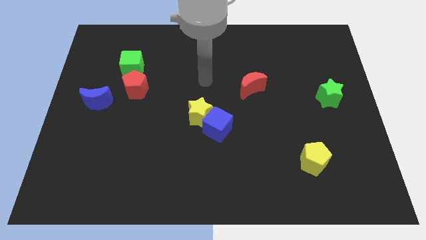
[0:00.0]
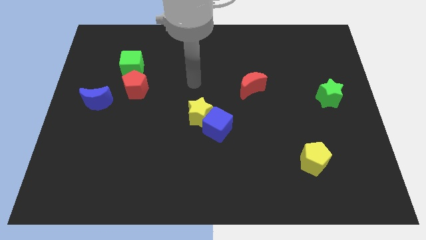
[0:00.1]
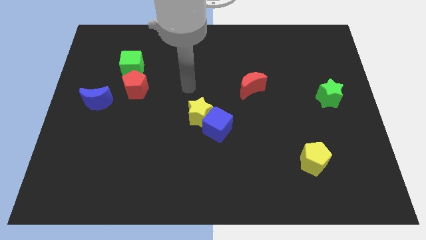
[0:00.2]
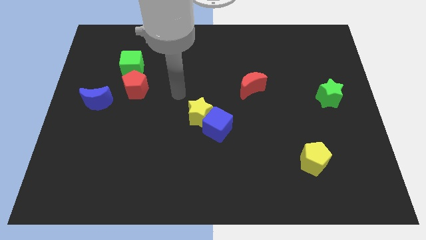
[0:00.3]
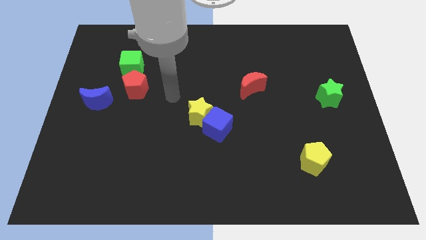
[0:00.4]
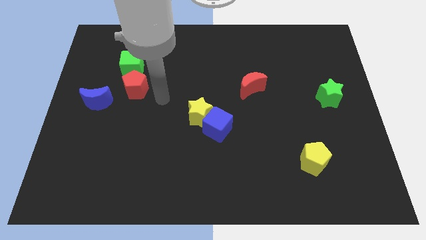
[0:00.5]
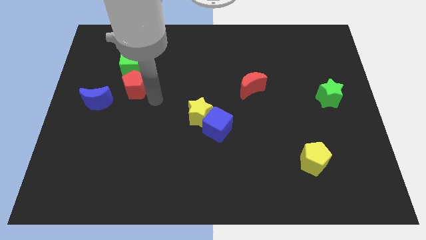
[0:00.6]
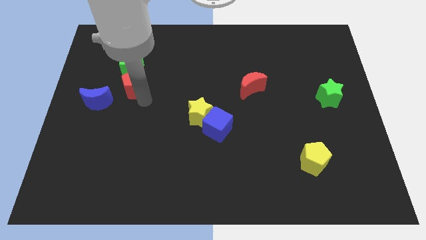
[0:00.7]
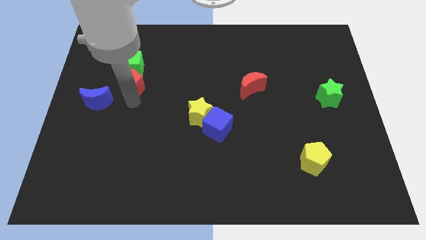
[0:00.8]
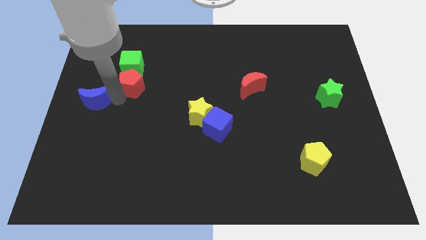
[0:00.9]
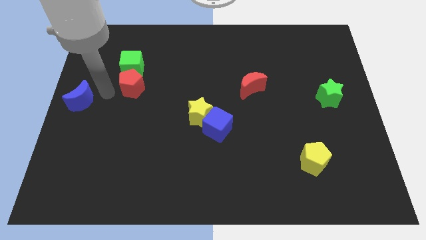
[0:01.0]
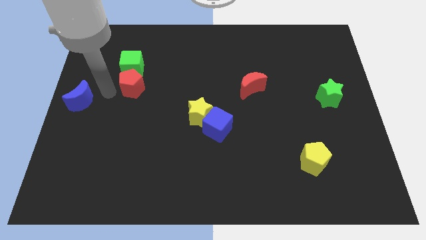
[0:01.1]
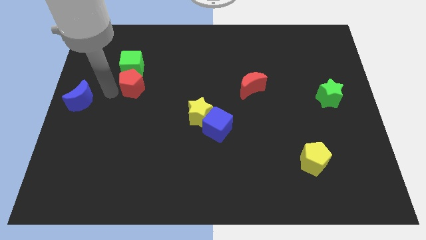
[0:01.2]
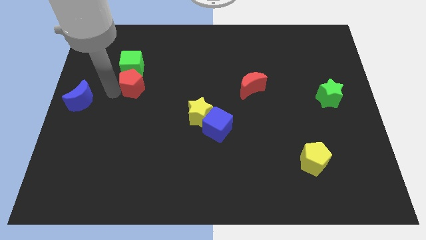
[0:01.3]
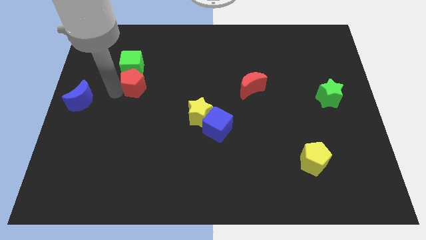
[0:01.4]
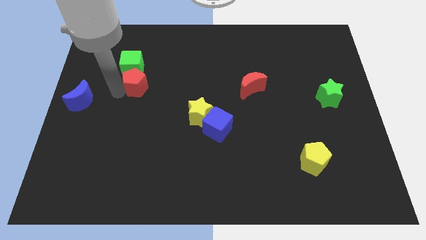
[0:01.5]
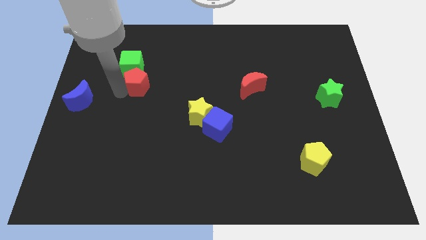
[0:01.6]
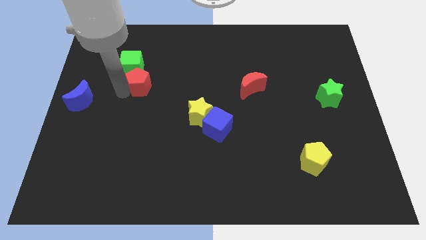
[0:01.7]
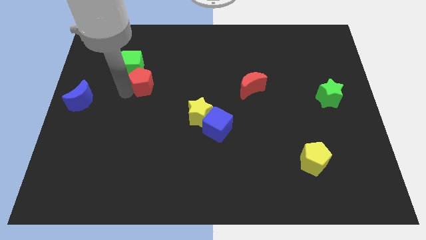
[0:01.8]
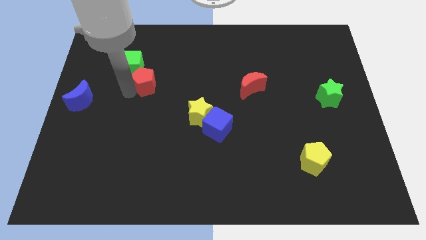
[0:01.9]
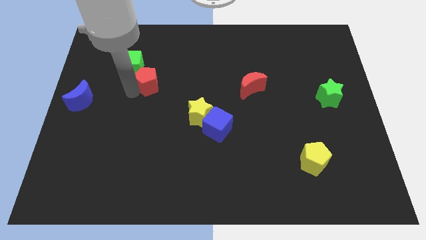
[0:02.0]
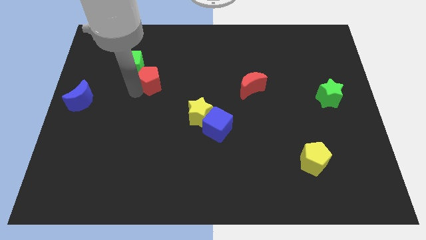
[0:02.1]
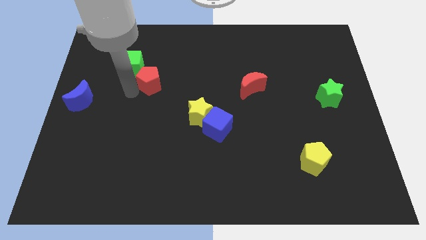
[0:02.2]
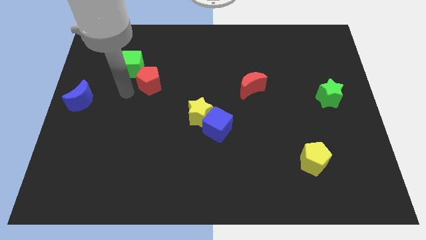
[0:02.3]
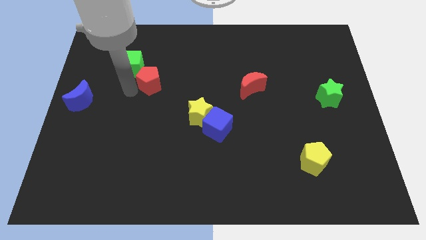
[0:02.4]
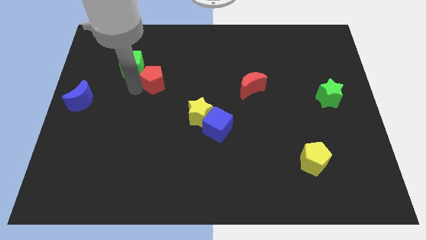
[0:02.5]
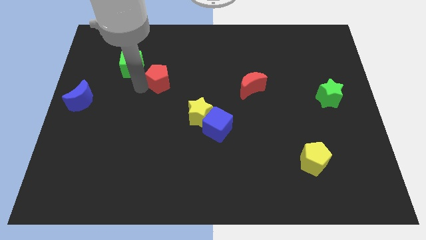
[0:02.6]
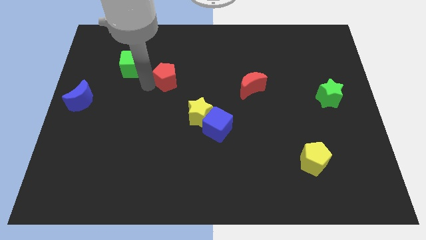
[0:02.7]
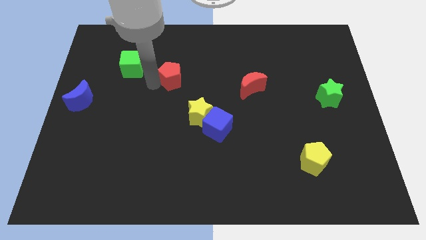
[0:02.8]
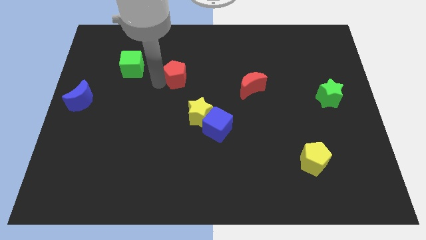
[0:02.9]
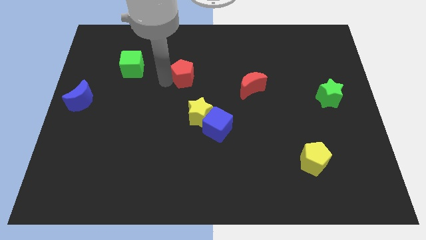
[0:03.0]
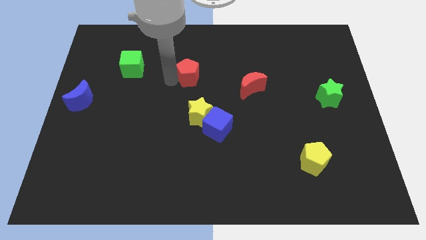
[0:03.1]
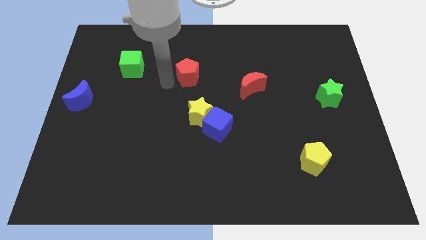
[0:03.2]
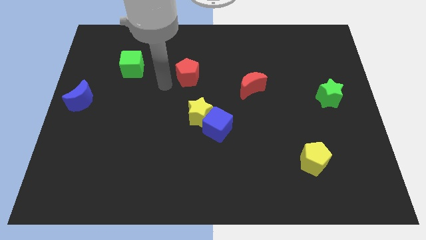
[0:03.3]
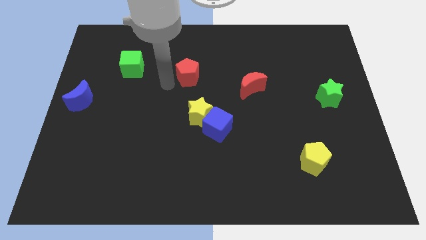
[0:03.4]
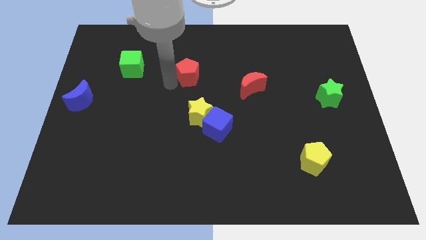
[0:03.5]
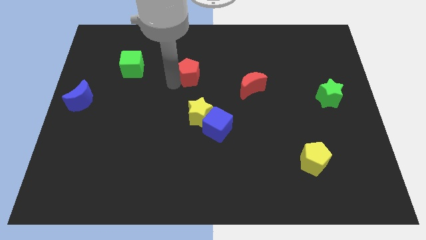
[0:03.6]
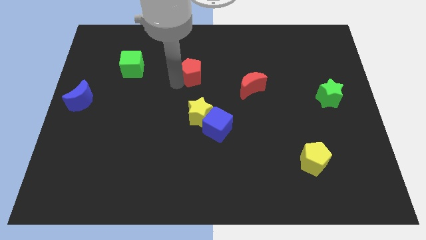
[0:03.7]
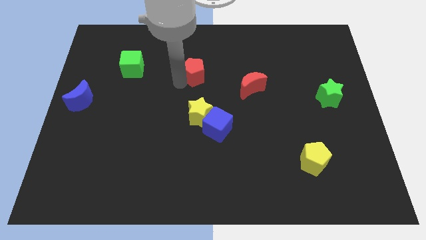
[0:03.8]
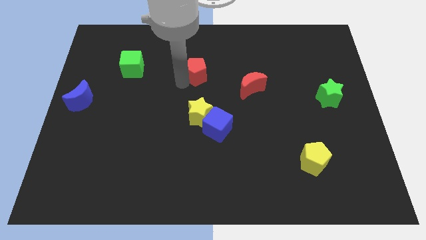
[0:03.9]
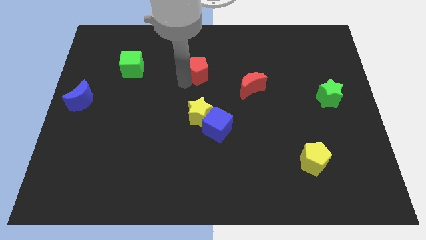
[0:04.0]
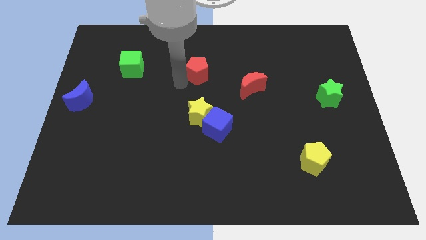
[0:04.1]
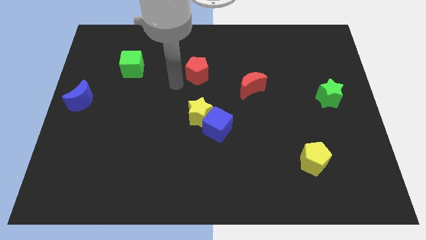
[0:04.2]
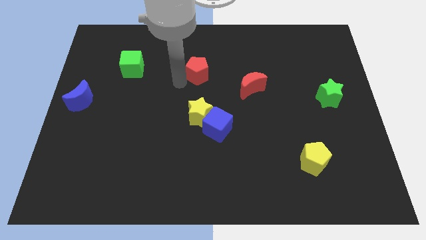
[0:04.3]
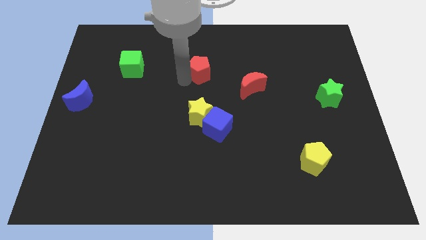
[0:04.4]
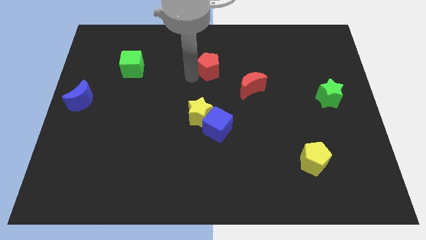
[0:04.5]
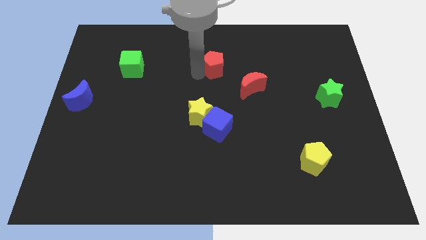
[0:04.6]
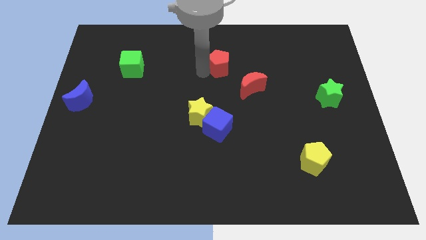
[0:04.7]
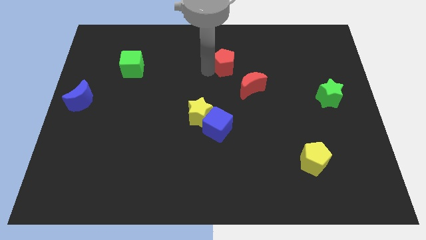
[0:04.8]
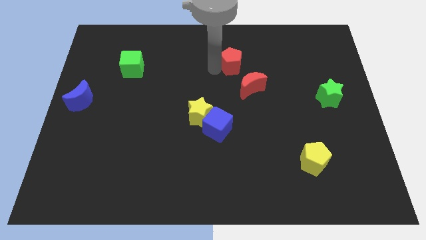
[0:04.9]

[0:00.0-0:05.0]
put the red pentagon to the top of the red moon

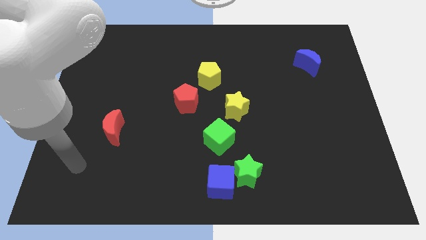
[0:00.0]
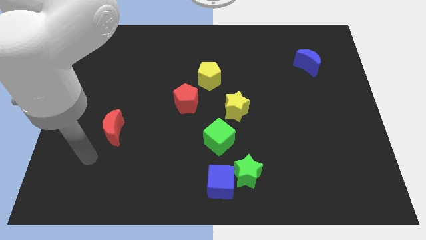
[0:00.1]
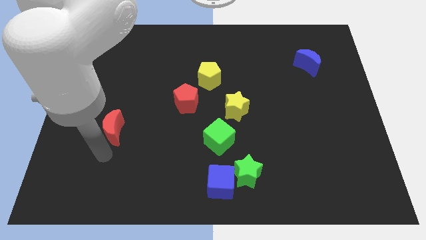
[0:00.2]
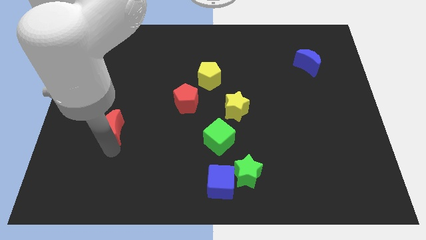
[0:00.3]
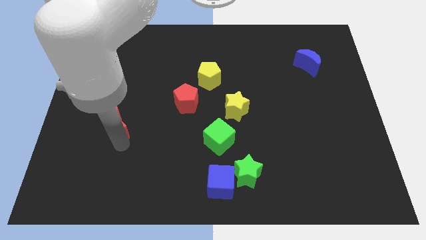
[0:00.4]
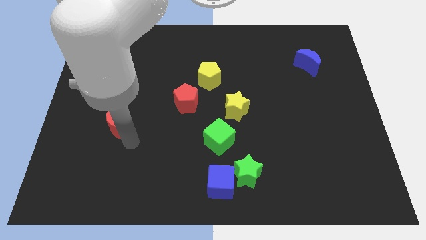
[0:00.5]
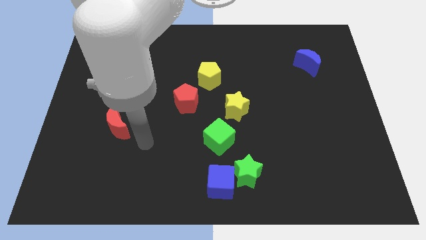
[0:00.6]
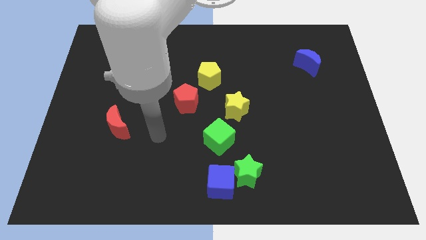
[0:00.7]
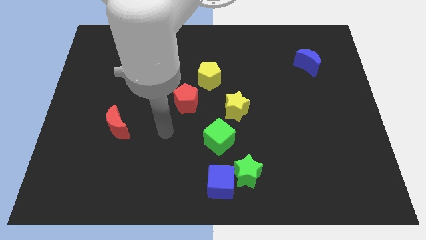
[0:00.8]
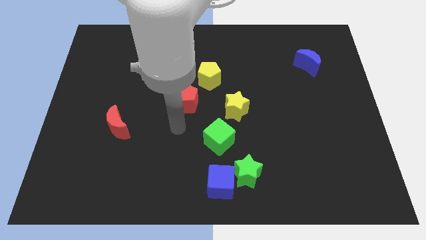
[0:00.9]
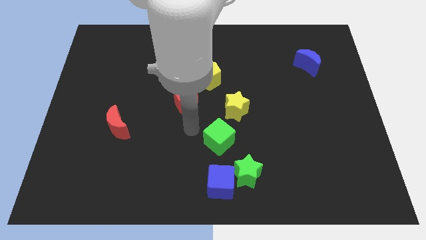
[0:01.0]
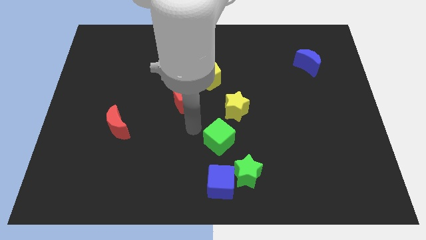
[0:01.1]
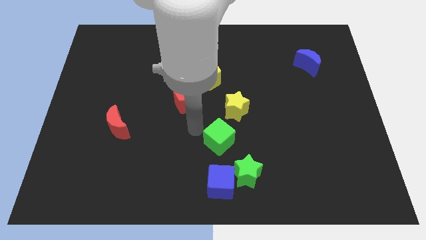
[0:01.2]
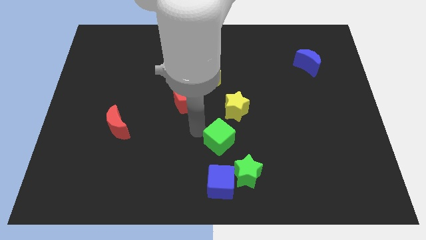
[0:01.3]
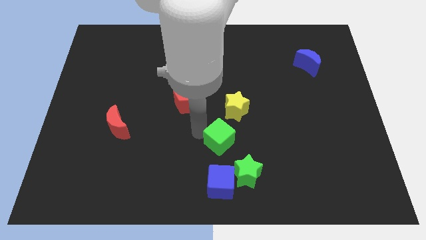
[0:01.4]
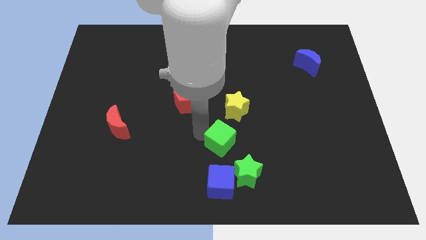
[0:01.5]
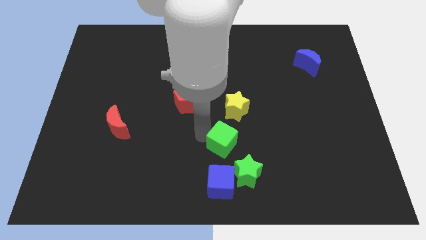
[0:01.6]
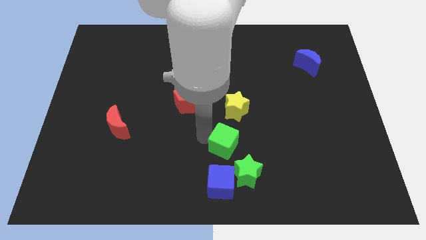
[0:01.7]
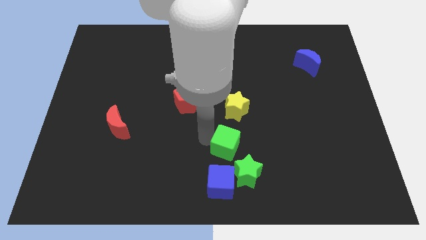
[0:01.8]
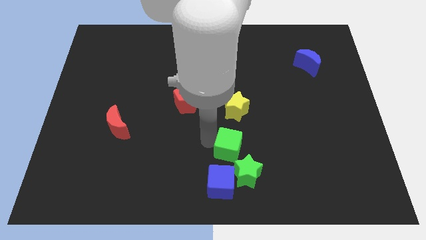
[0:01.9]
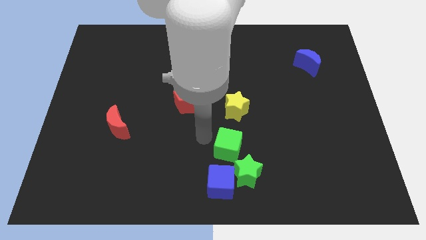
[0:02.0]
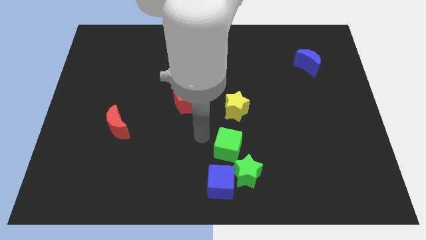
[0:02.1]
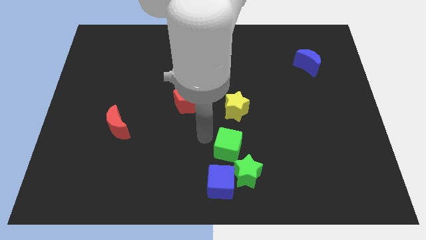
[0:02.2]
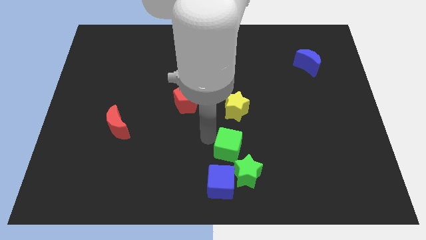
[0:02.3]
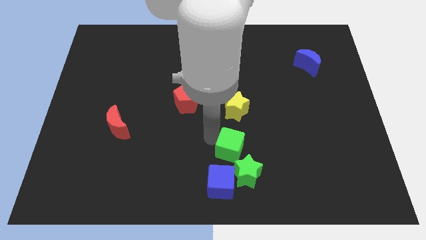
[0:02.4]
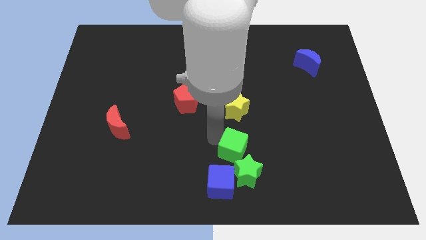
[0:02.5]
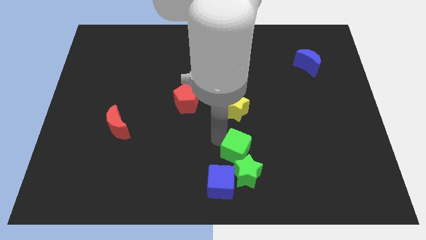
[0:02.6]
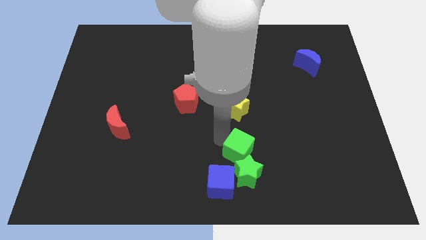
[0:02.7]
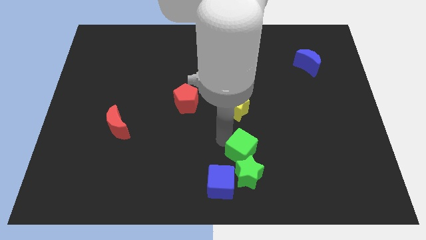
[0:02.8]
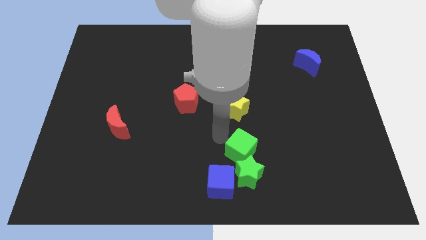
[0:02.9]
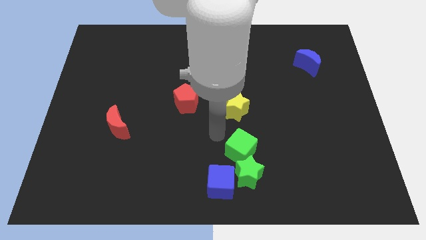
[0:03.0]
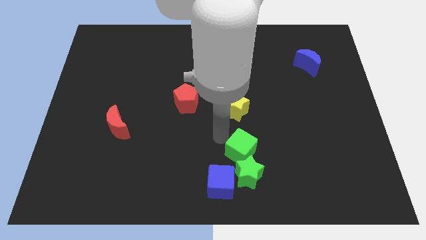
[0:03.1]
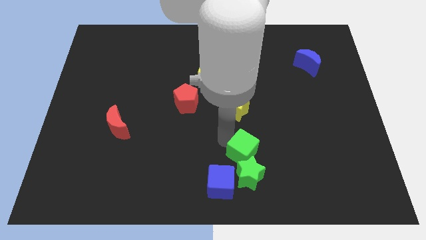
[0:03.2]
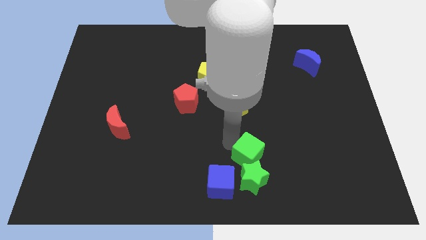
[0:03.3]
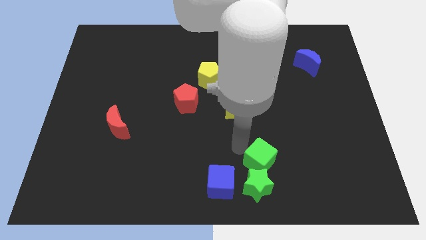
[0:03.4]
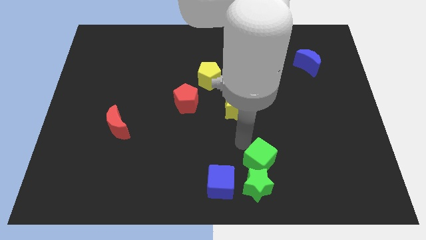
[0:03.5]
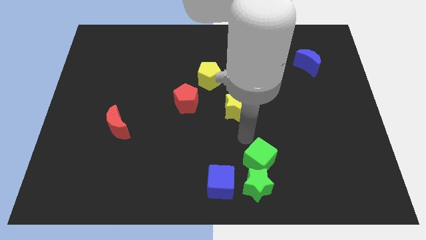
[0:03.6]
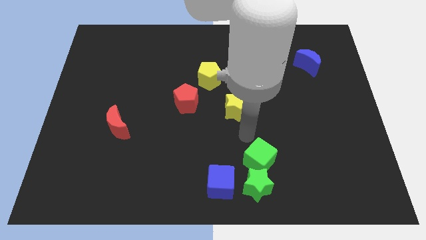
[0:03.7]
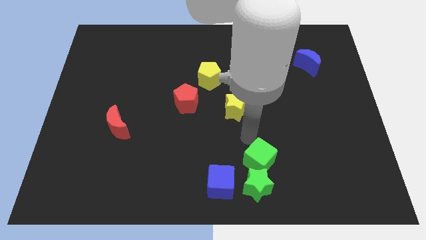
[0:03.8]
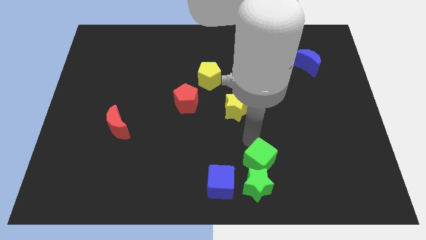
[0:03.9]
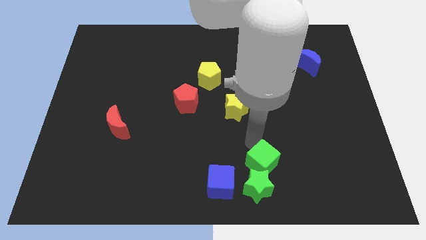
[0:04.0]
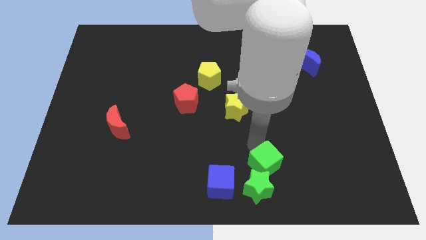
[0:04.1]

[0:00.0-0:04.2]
push the green cube just right of the blue cube
